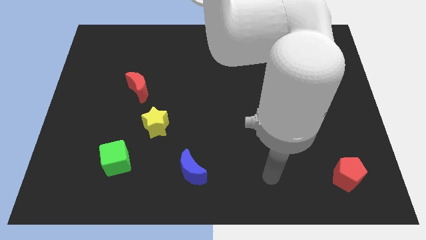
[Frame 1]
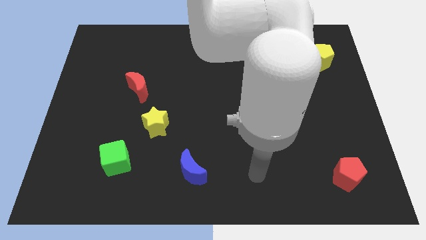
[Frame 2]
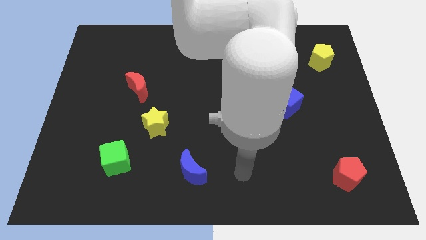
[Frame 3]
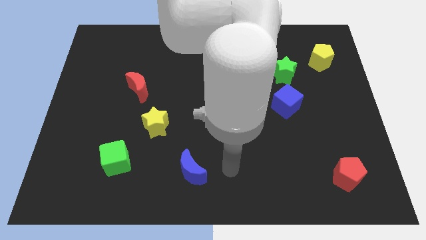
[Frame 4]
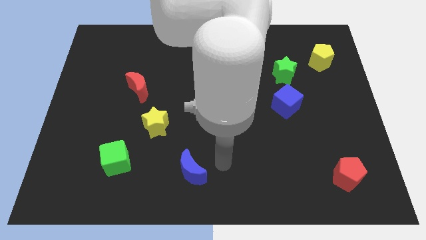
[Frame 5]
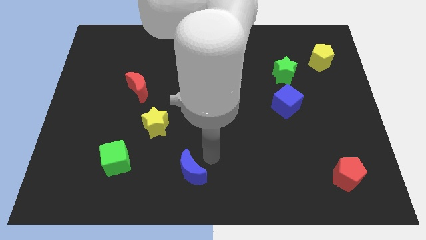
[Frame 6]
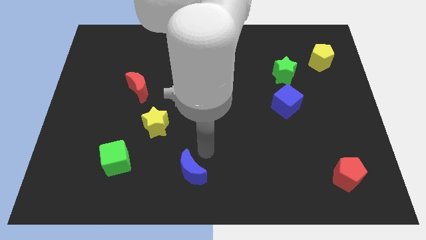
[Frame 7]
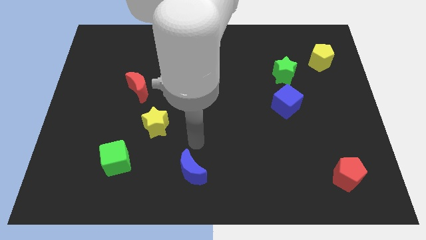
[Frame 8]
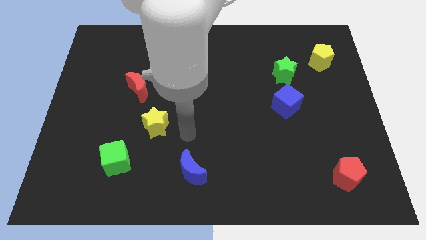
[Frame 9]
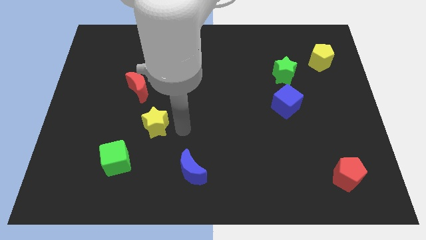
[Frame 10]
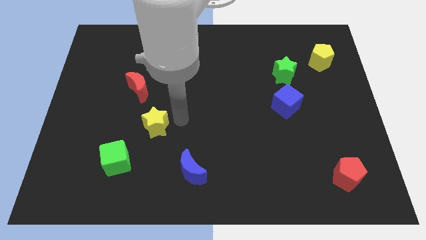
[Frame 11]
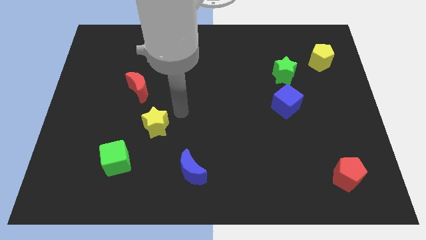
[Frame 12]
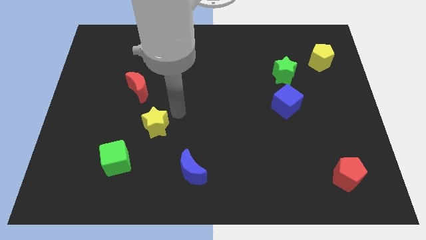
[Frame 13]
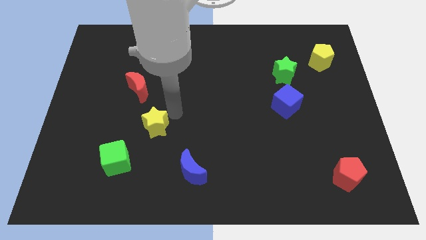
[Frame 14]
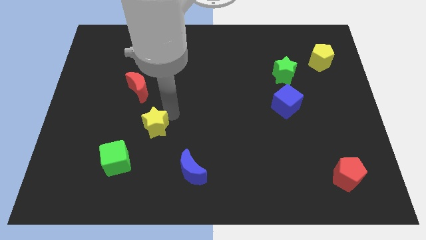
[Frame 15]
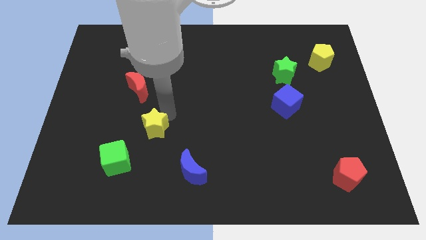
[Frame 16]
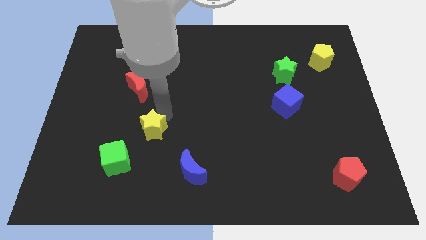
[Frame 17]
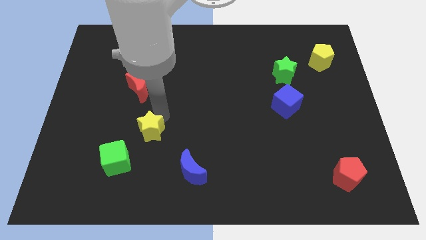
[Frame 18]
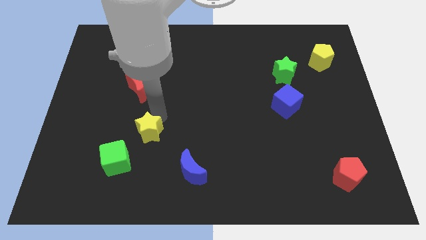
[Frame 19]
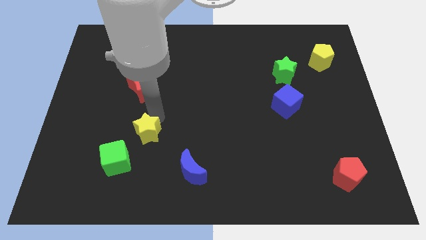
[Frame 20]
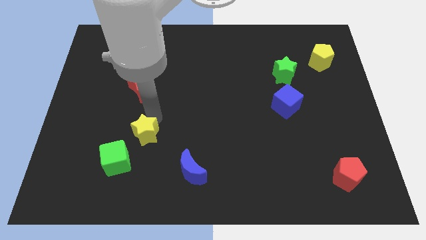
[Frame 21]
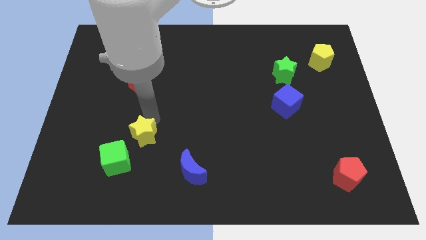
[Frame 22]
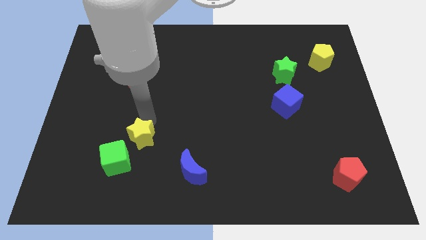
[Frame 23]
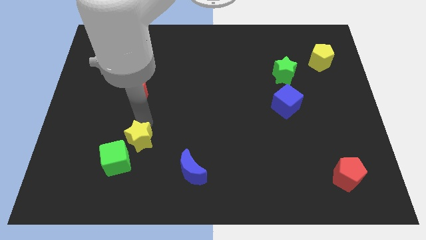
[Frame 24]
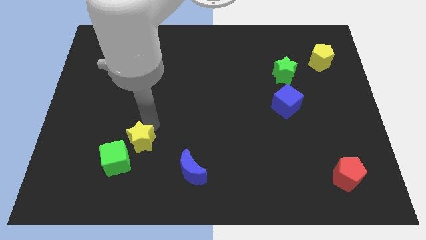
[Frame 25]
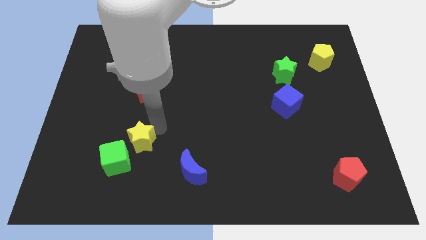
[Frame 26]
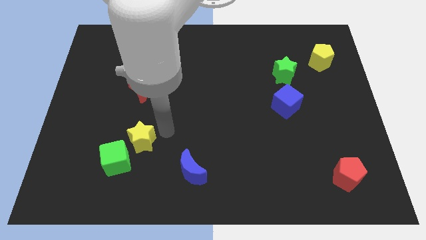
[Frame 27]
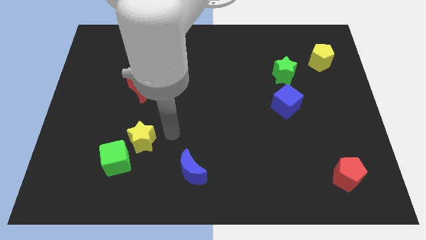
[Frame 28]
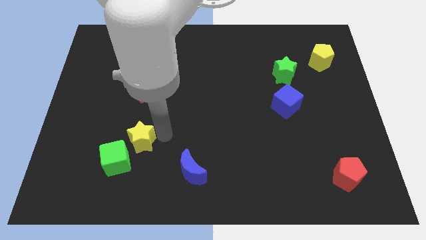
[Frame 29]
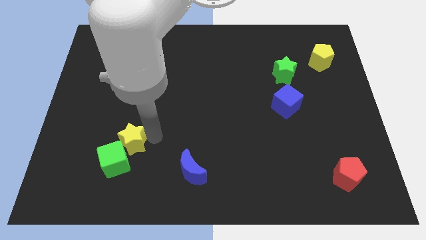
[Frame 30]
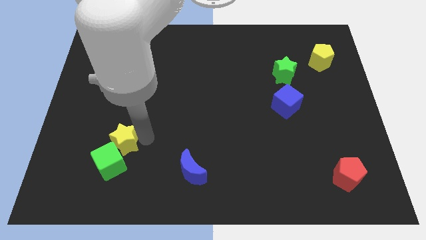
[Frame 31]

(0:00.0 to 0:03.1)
push the yellow star slightly downwards and to the left diagonally

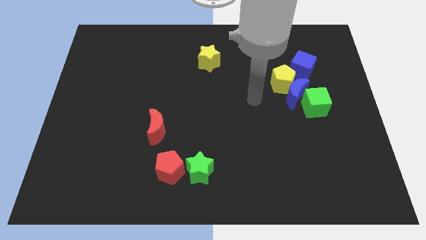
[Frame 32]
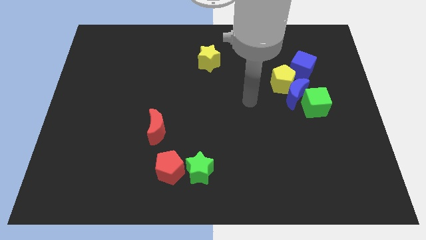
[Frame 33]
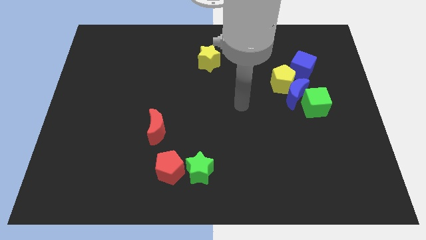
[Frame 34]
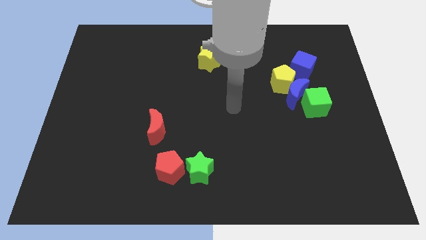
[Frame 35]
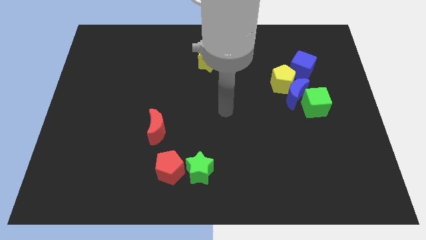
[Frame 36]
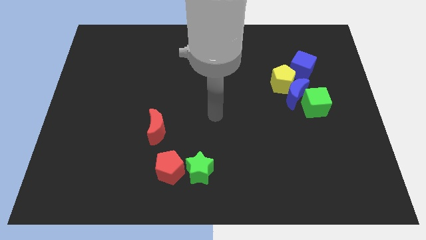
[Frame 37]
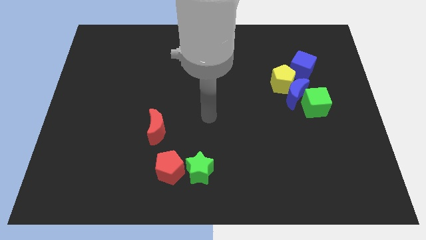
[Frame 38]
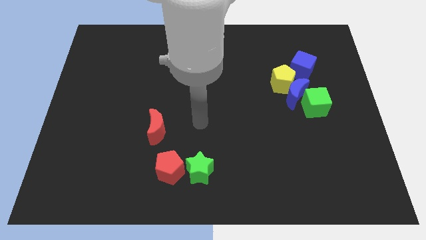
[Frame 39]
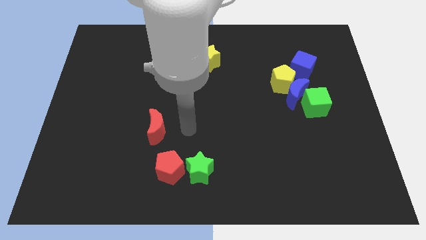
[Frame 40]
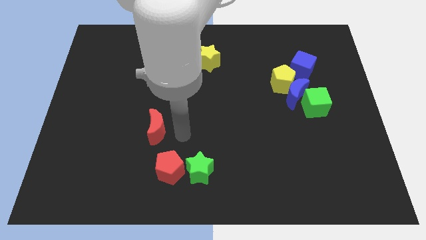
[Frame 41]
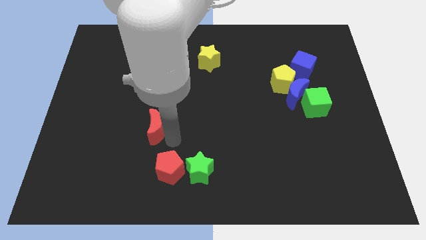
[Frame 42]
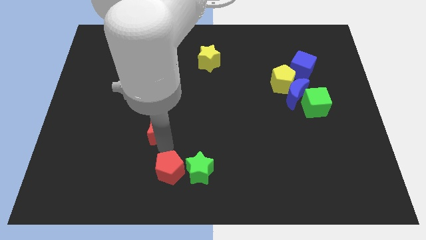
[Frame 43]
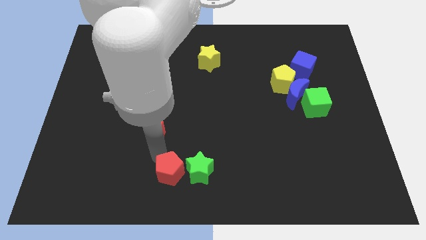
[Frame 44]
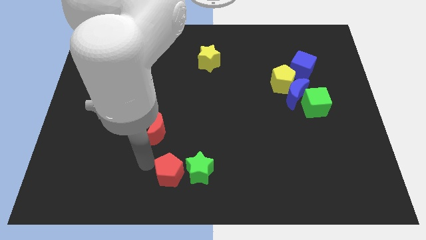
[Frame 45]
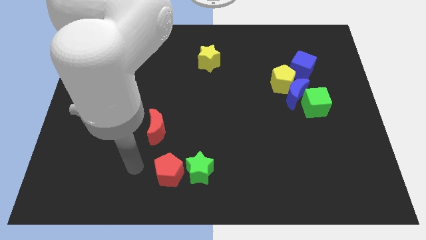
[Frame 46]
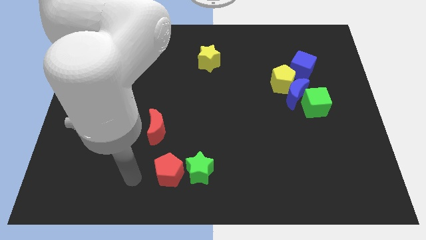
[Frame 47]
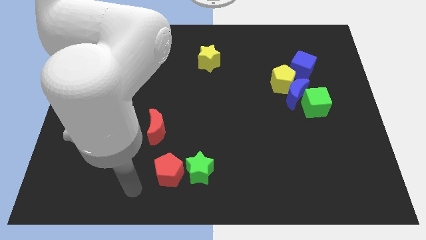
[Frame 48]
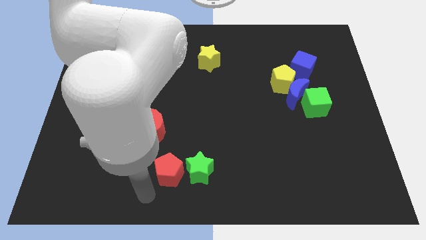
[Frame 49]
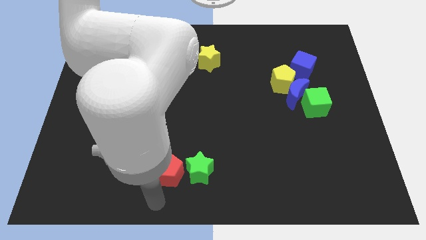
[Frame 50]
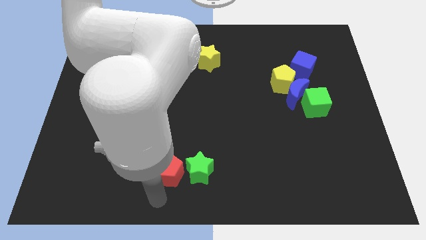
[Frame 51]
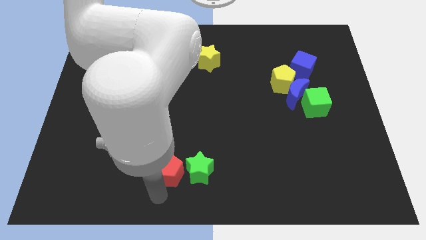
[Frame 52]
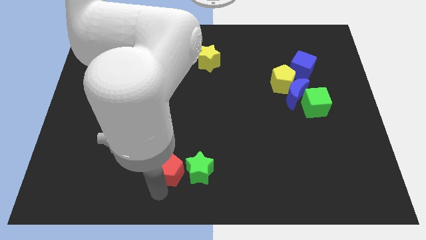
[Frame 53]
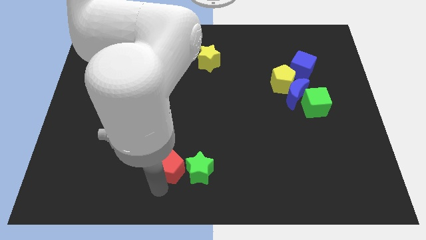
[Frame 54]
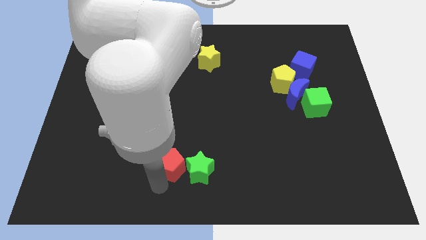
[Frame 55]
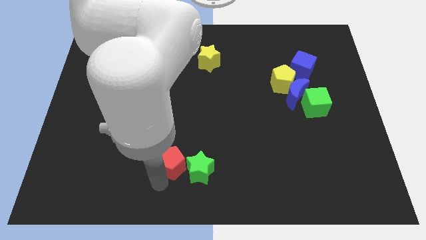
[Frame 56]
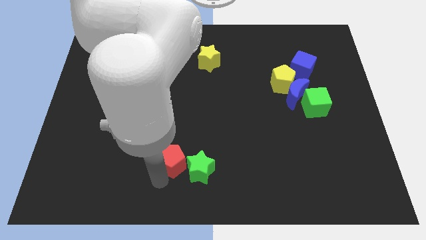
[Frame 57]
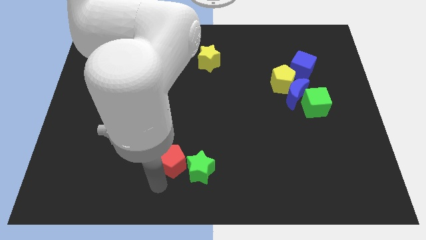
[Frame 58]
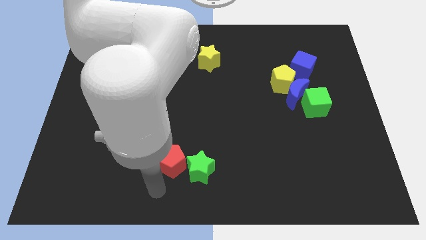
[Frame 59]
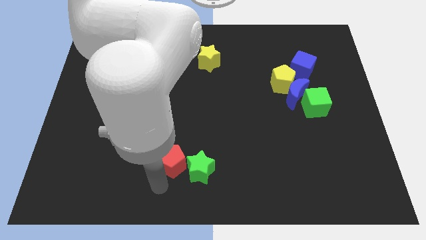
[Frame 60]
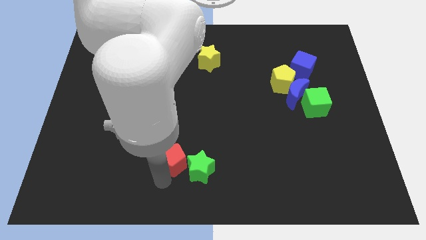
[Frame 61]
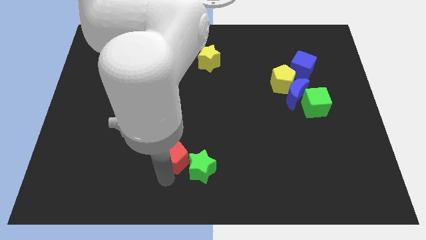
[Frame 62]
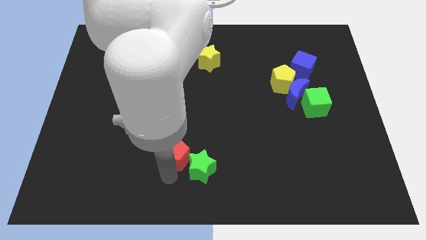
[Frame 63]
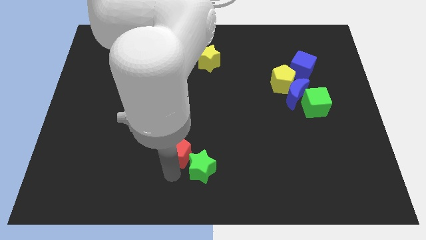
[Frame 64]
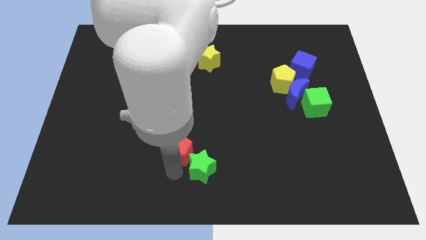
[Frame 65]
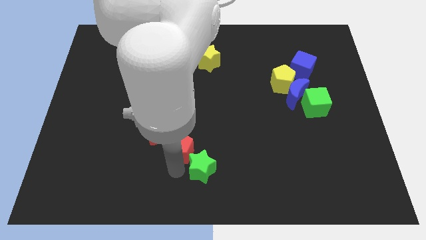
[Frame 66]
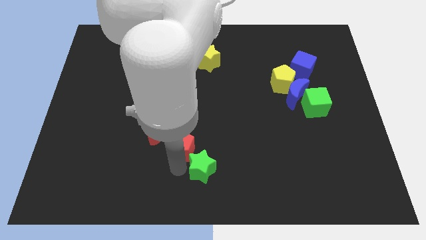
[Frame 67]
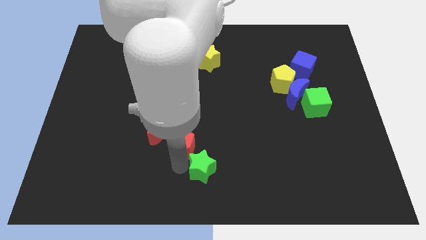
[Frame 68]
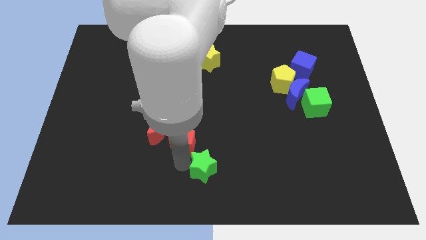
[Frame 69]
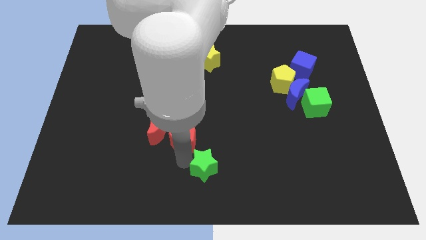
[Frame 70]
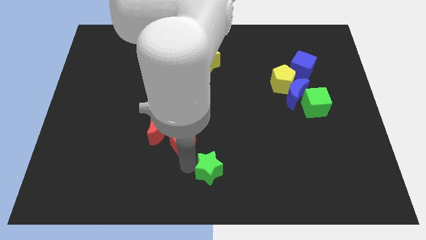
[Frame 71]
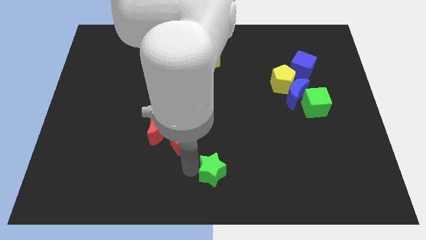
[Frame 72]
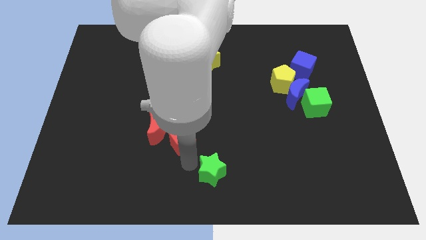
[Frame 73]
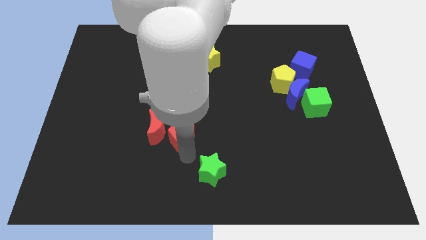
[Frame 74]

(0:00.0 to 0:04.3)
slightly move the red pentagon up

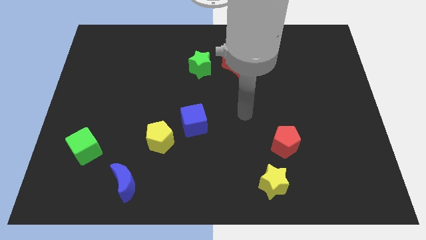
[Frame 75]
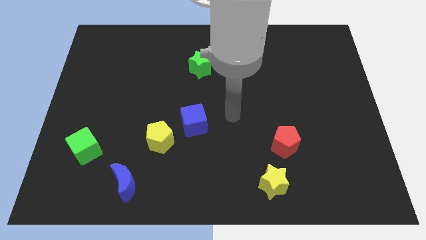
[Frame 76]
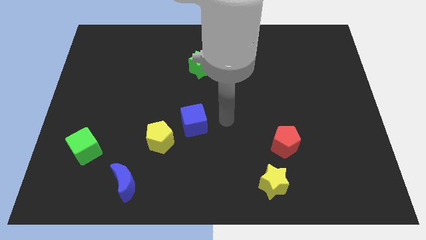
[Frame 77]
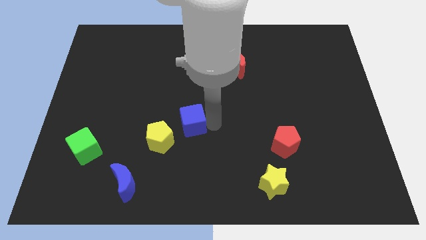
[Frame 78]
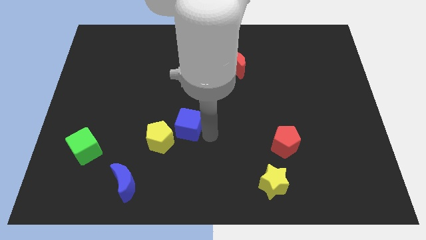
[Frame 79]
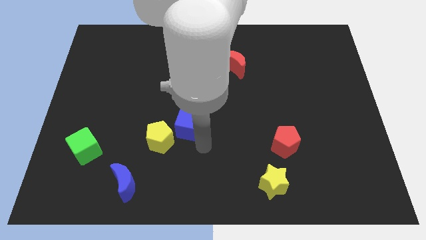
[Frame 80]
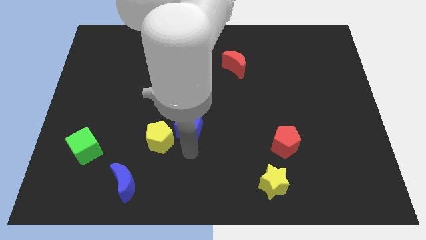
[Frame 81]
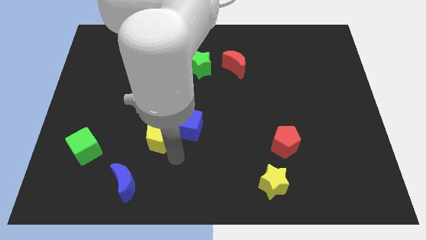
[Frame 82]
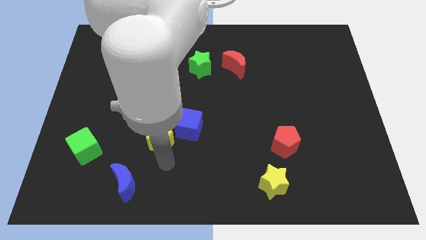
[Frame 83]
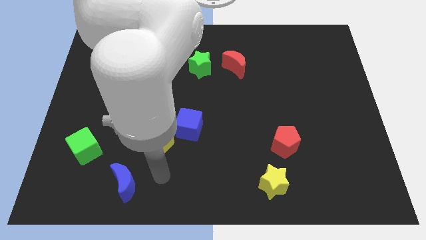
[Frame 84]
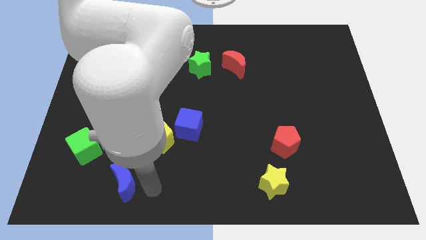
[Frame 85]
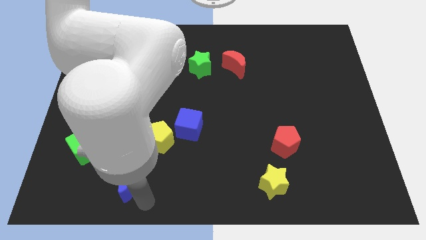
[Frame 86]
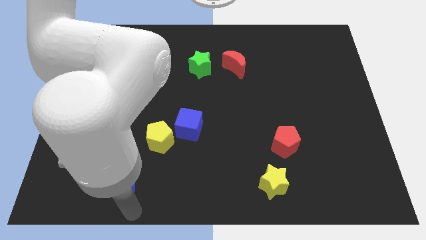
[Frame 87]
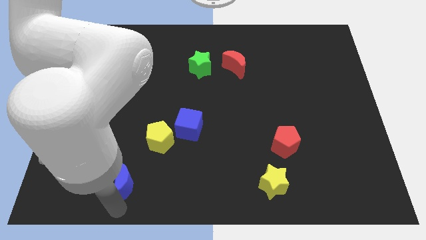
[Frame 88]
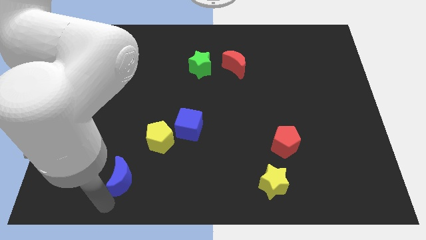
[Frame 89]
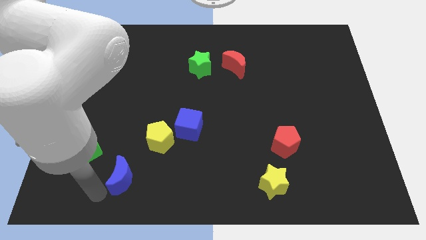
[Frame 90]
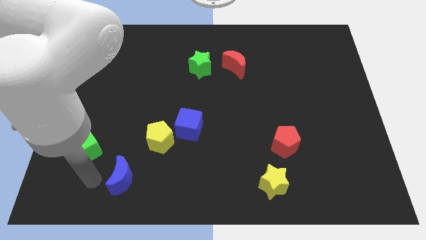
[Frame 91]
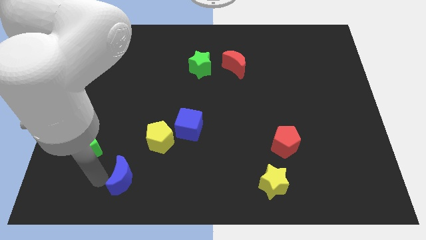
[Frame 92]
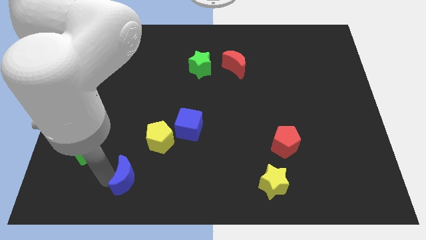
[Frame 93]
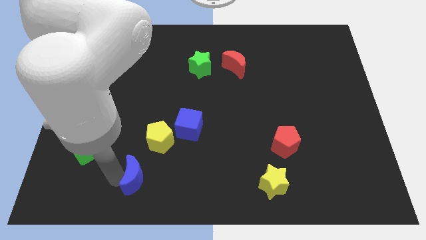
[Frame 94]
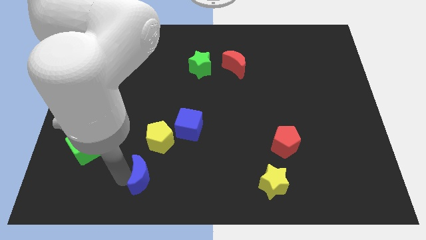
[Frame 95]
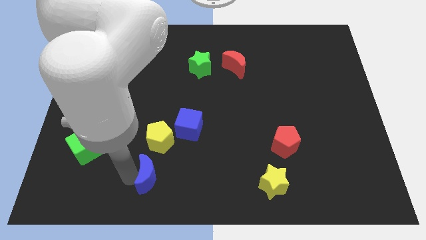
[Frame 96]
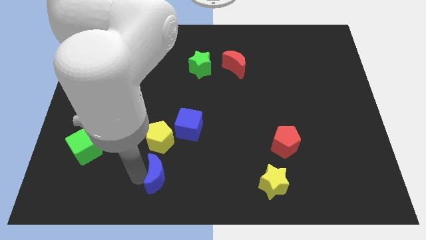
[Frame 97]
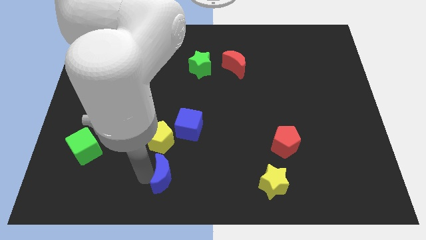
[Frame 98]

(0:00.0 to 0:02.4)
move the blue moon slightly to the right
